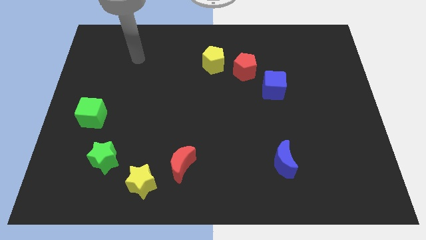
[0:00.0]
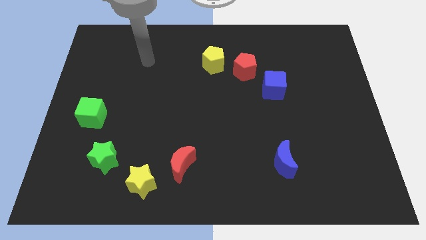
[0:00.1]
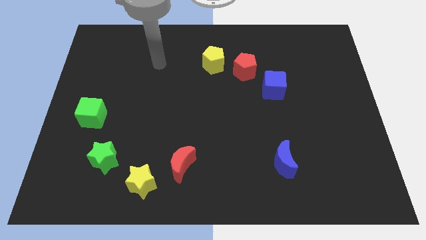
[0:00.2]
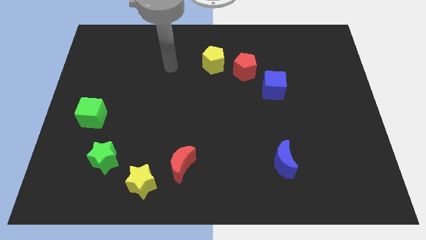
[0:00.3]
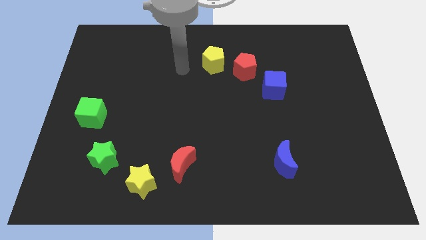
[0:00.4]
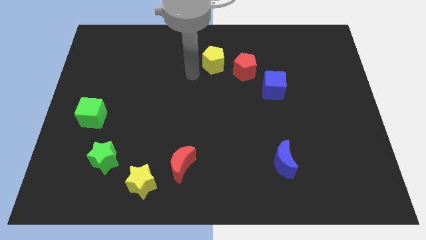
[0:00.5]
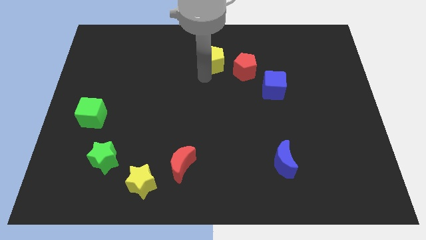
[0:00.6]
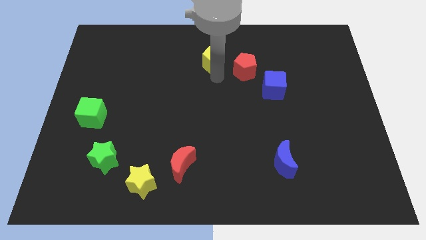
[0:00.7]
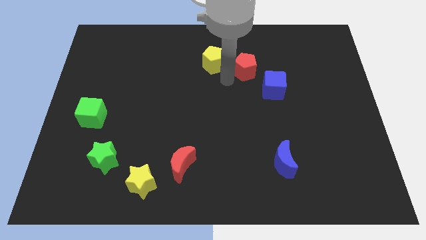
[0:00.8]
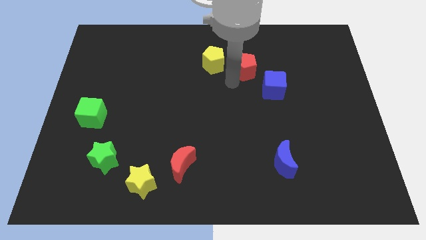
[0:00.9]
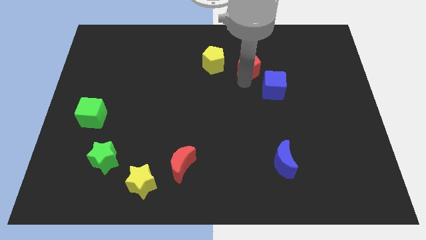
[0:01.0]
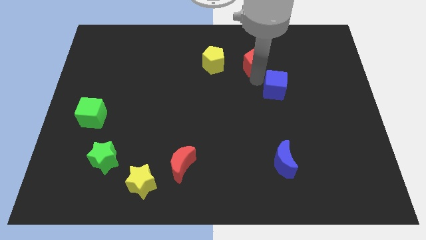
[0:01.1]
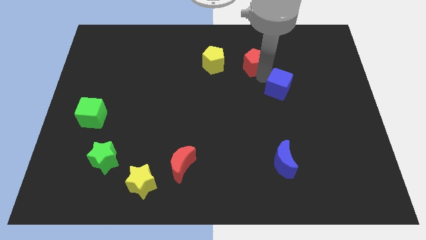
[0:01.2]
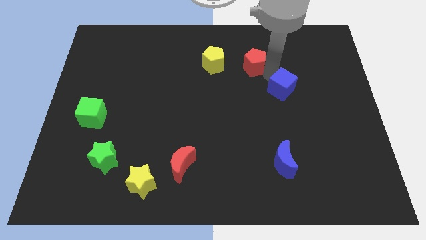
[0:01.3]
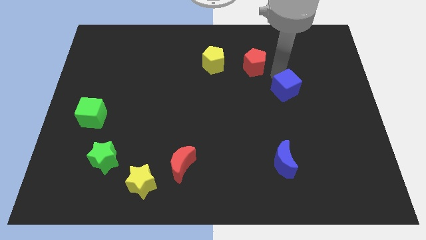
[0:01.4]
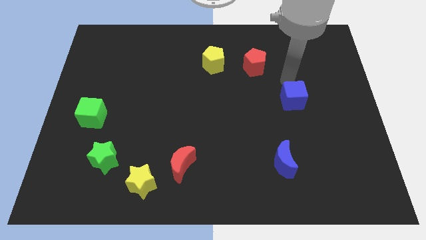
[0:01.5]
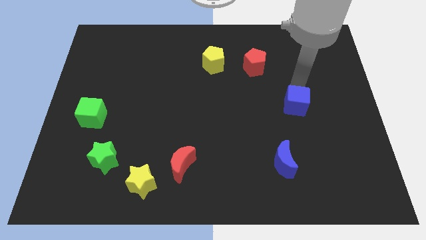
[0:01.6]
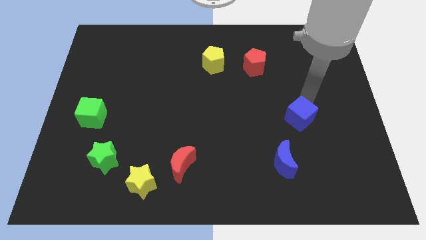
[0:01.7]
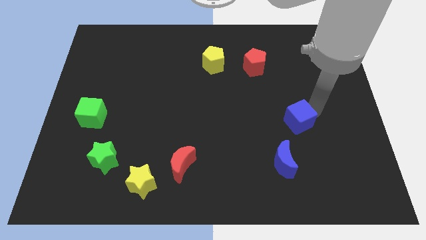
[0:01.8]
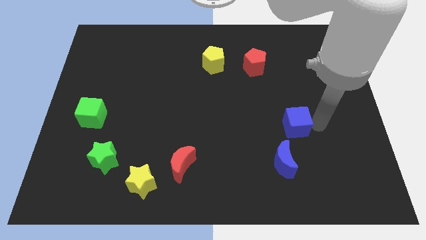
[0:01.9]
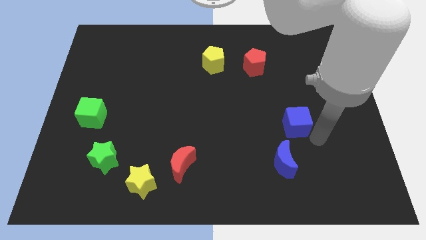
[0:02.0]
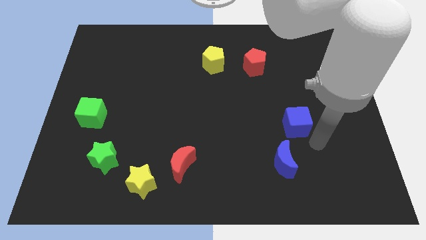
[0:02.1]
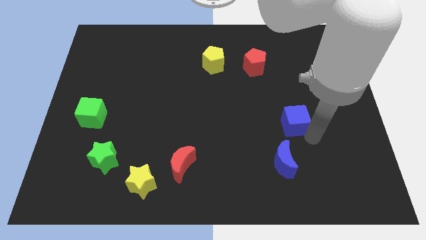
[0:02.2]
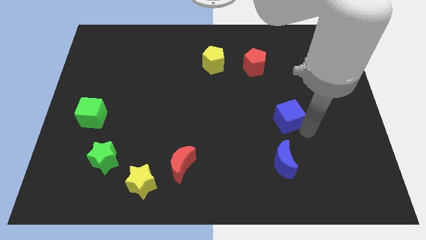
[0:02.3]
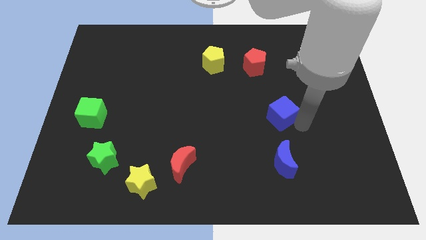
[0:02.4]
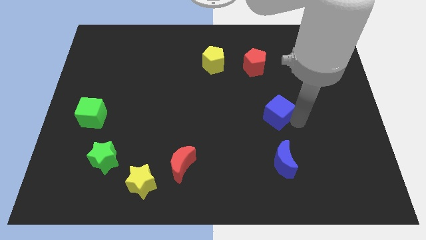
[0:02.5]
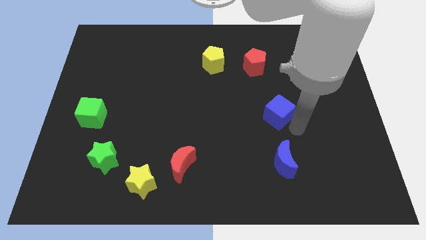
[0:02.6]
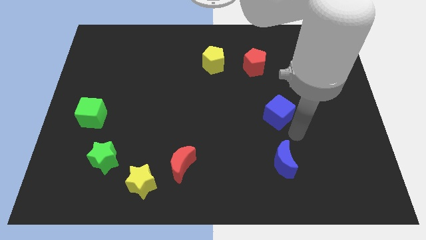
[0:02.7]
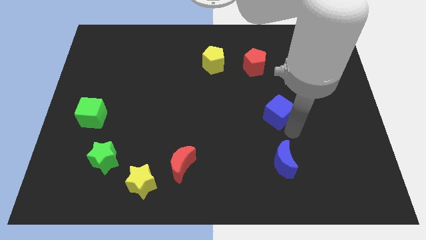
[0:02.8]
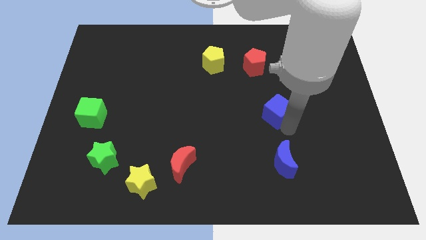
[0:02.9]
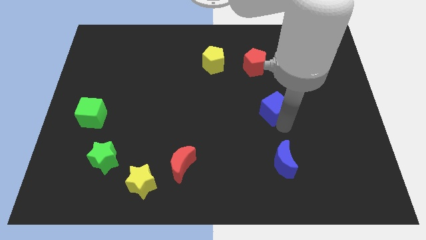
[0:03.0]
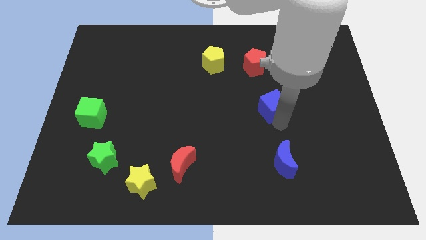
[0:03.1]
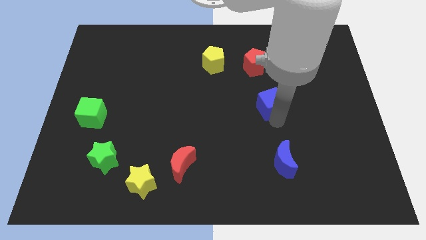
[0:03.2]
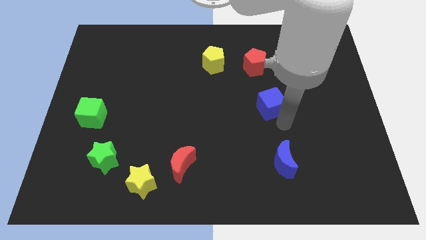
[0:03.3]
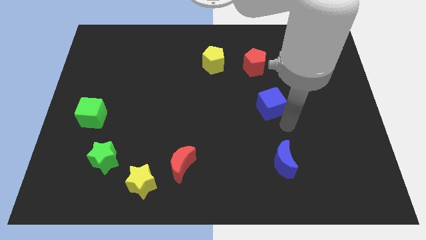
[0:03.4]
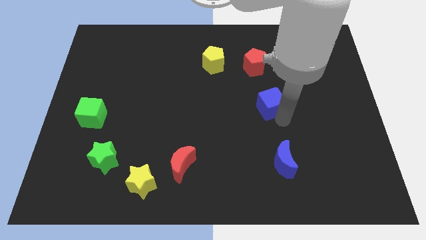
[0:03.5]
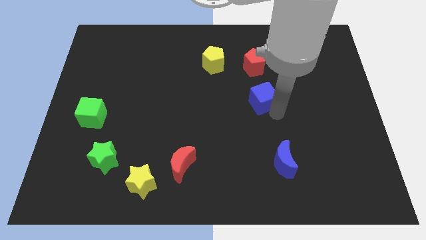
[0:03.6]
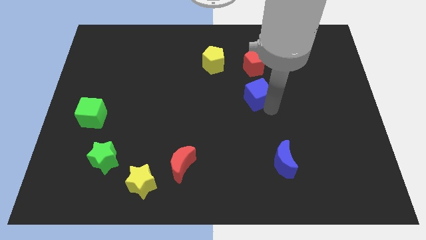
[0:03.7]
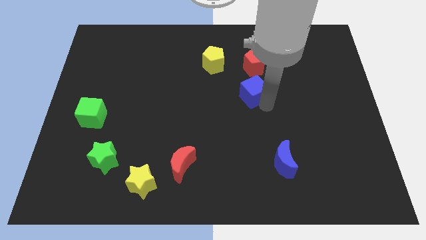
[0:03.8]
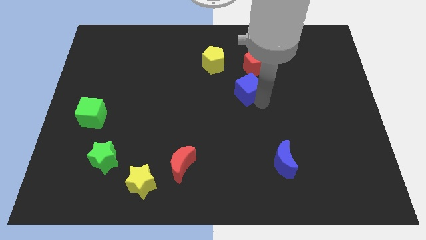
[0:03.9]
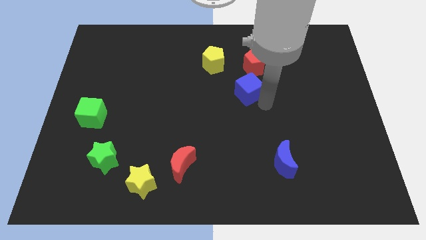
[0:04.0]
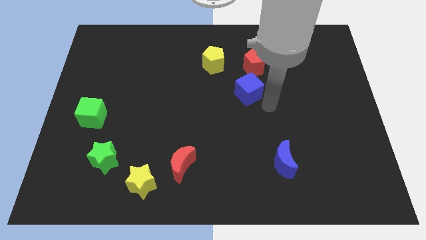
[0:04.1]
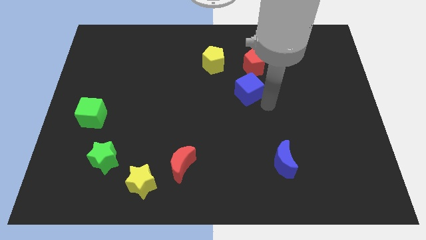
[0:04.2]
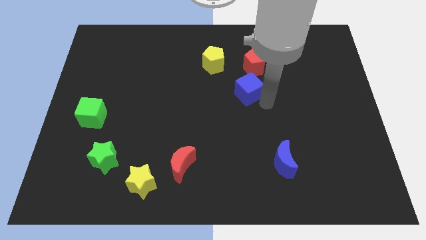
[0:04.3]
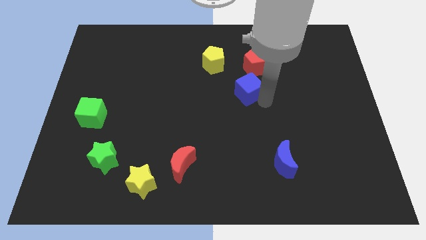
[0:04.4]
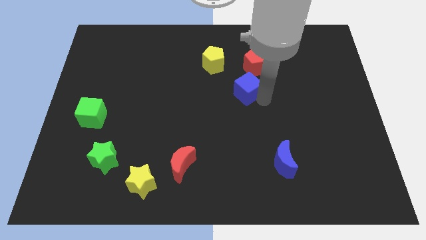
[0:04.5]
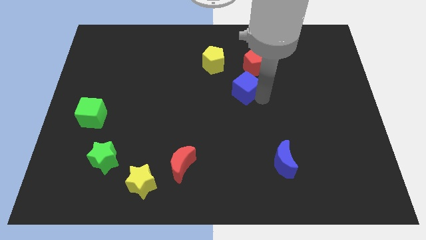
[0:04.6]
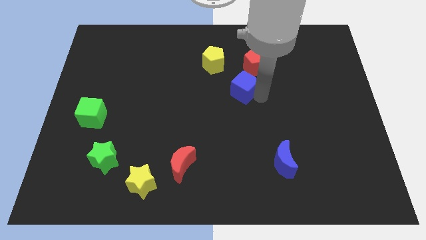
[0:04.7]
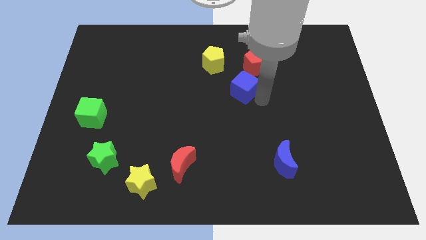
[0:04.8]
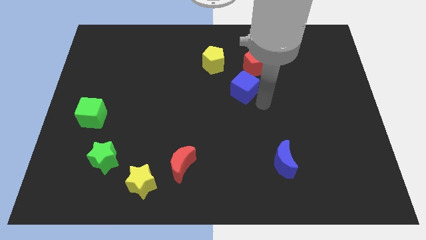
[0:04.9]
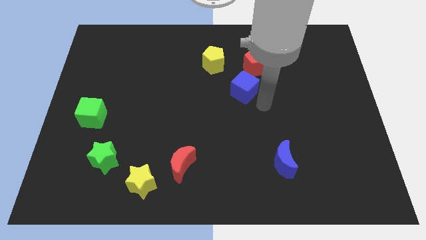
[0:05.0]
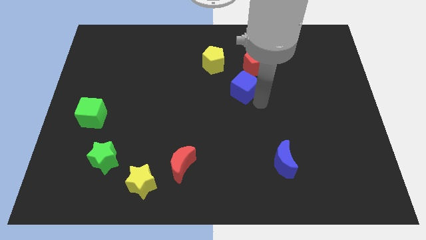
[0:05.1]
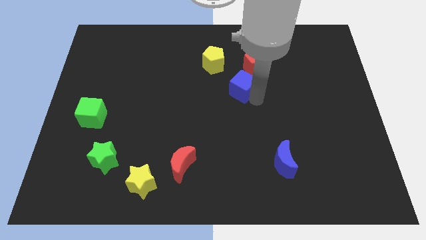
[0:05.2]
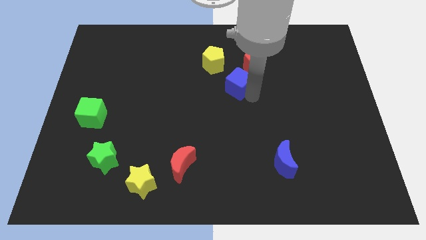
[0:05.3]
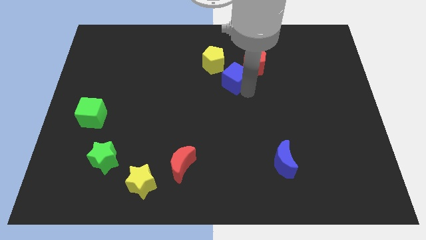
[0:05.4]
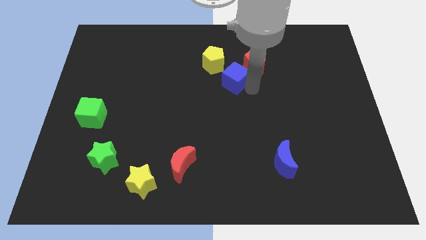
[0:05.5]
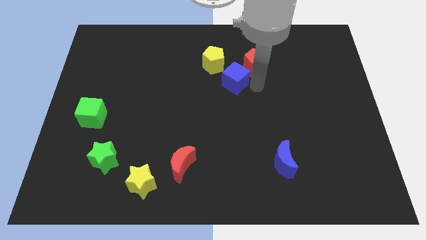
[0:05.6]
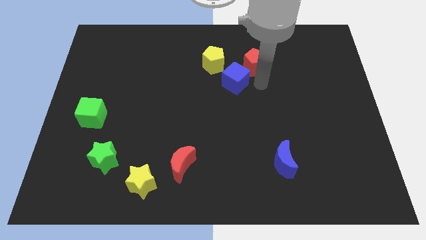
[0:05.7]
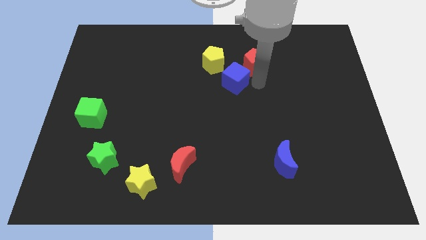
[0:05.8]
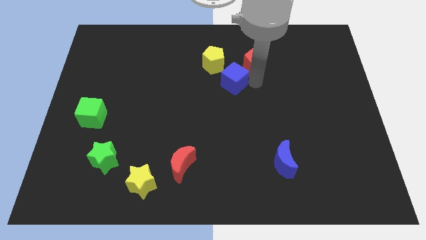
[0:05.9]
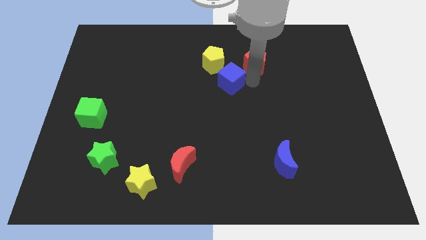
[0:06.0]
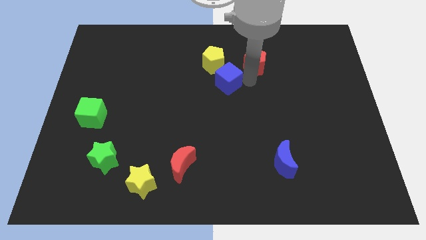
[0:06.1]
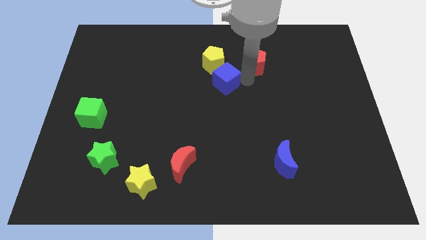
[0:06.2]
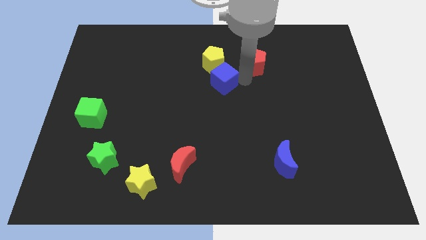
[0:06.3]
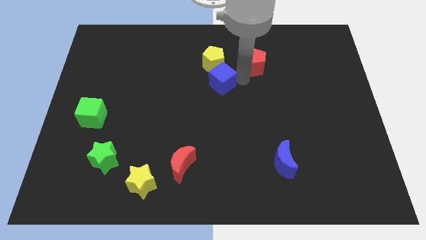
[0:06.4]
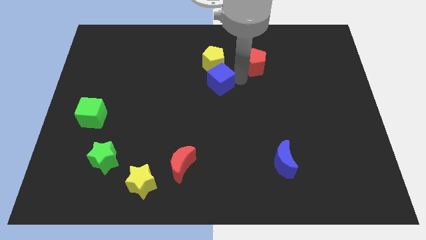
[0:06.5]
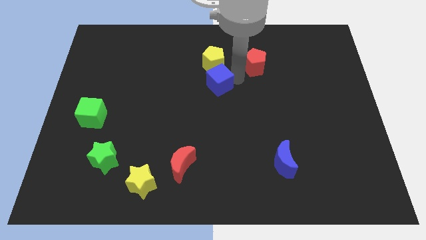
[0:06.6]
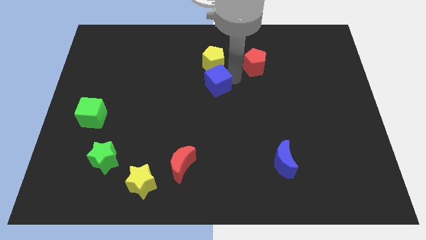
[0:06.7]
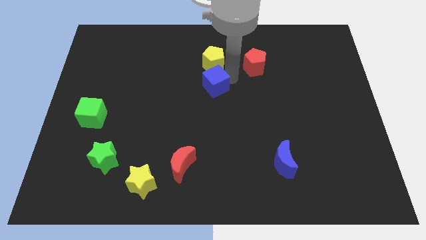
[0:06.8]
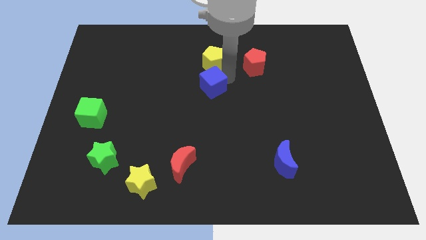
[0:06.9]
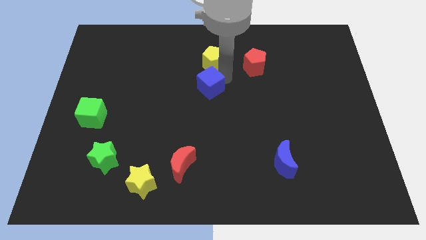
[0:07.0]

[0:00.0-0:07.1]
push the blue cube to the bottom left side of the yellow pentagon
